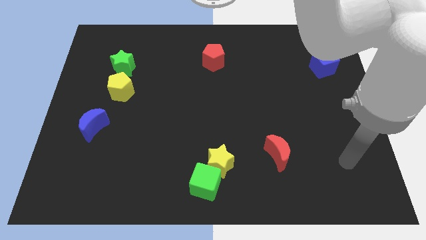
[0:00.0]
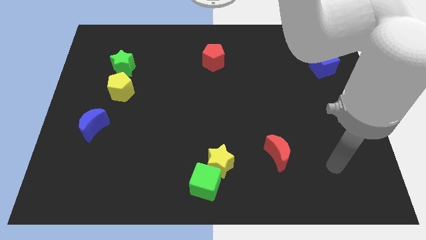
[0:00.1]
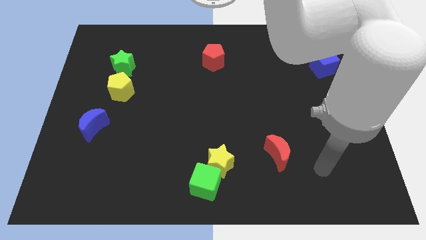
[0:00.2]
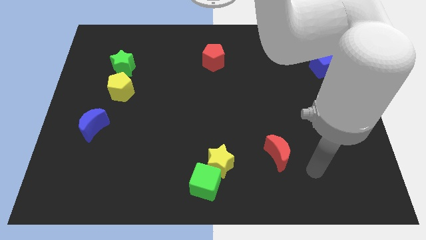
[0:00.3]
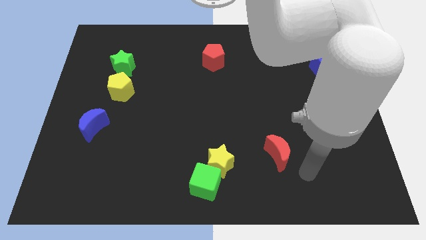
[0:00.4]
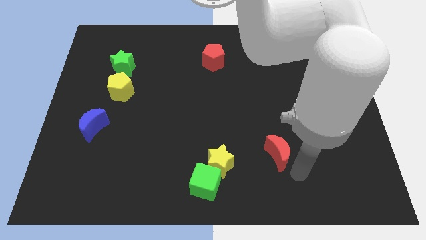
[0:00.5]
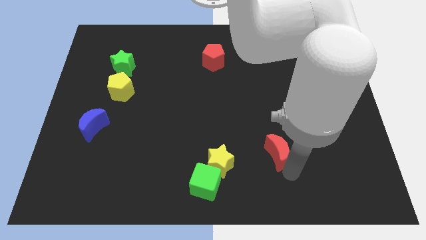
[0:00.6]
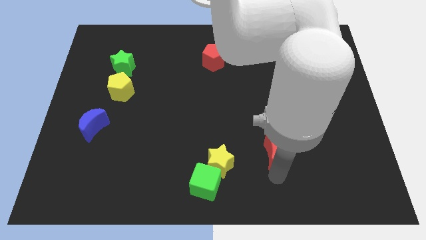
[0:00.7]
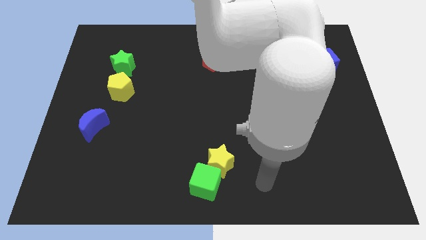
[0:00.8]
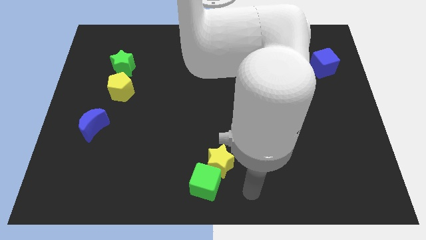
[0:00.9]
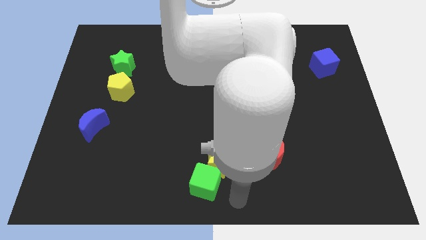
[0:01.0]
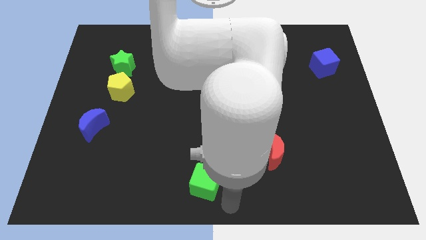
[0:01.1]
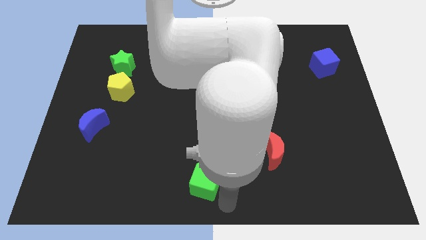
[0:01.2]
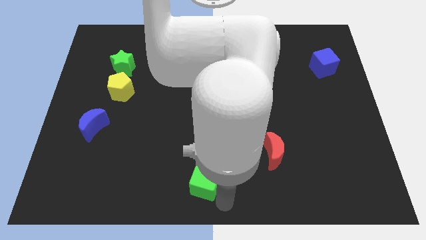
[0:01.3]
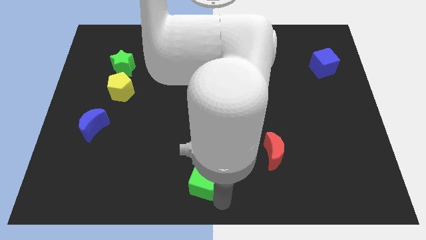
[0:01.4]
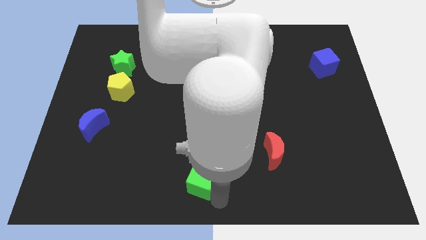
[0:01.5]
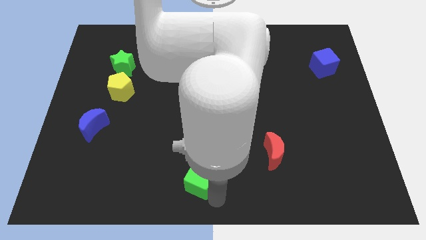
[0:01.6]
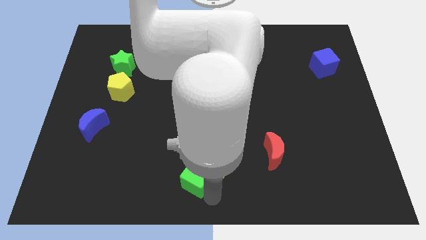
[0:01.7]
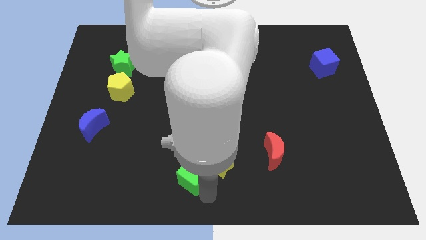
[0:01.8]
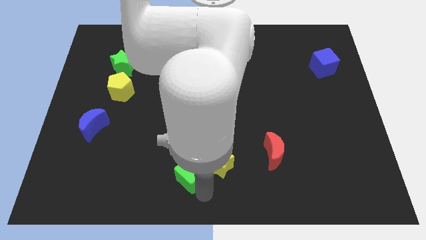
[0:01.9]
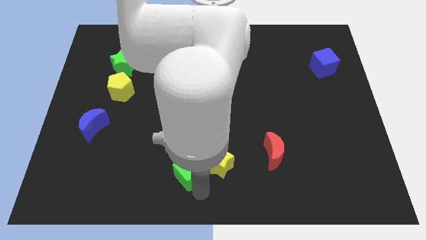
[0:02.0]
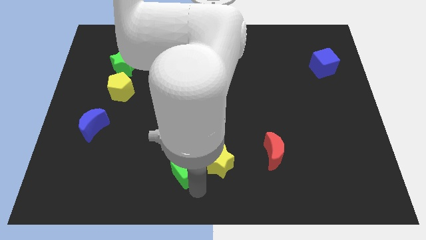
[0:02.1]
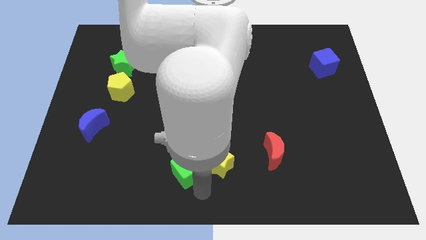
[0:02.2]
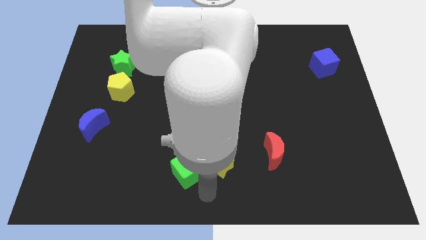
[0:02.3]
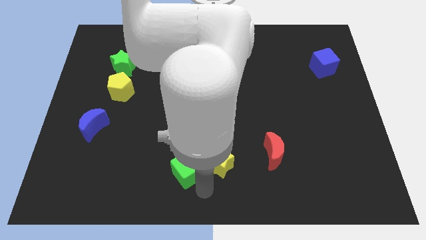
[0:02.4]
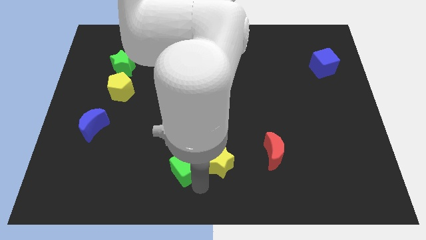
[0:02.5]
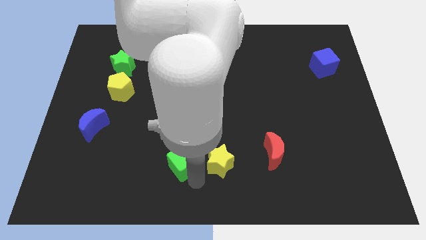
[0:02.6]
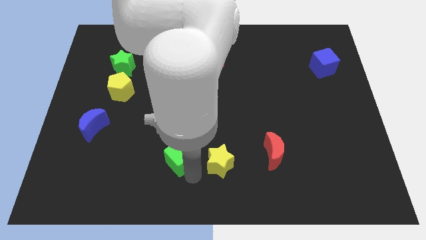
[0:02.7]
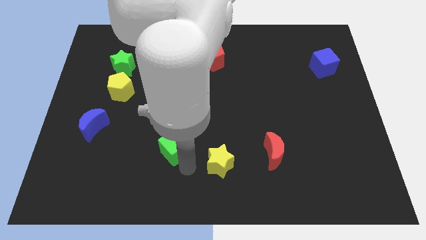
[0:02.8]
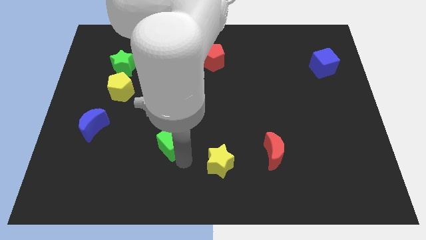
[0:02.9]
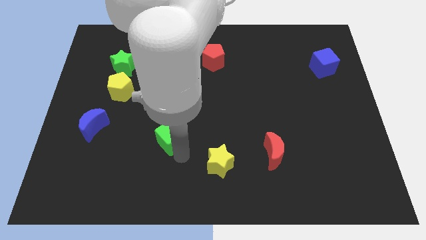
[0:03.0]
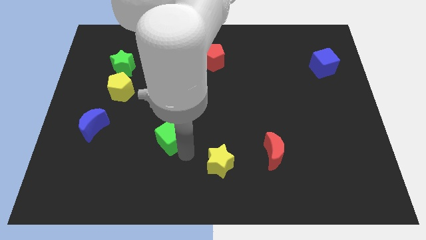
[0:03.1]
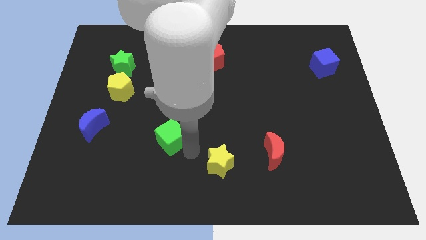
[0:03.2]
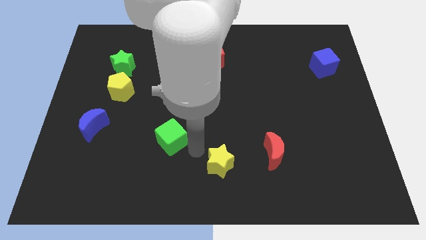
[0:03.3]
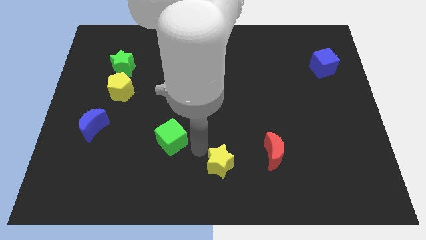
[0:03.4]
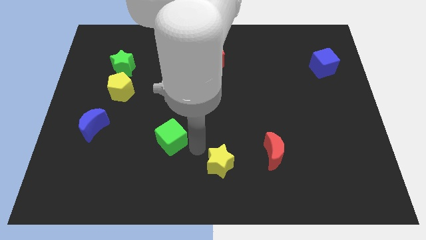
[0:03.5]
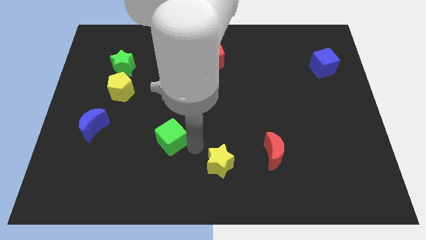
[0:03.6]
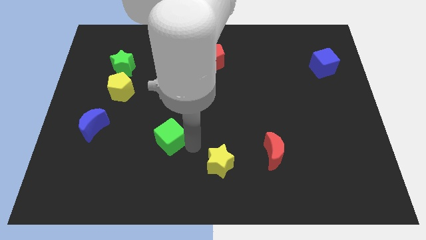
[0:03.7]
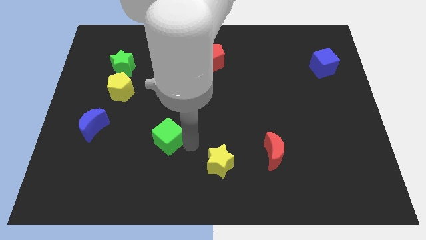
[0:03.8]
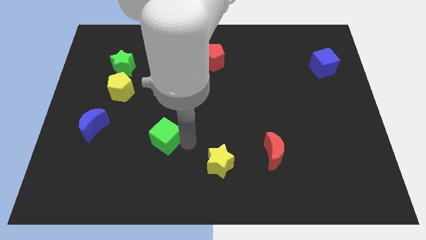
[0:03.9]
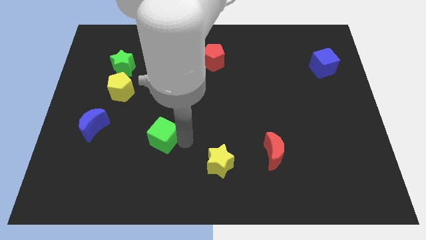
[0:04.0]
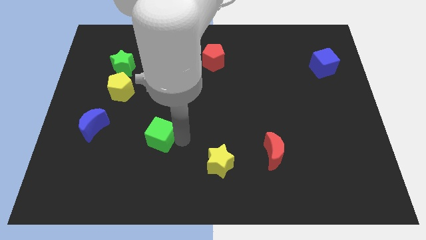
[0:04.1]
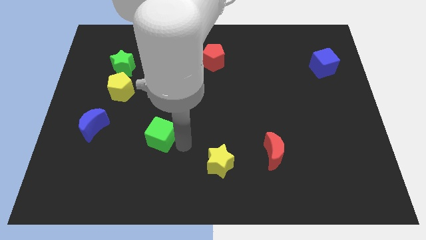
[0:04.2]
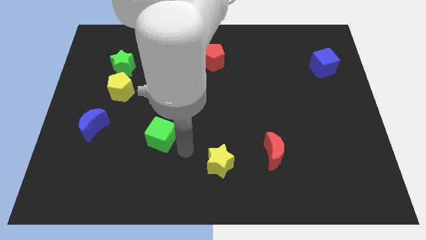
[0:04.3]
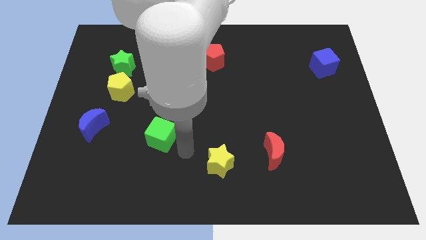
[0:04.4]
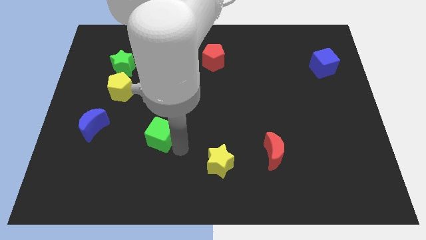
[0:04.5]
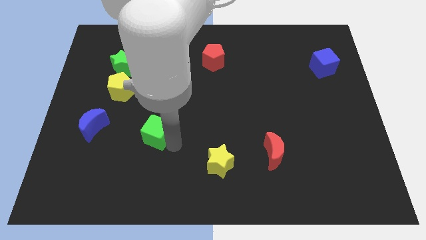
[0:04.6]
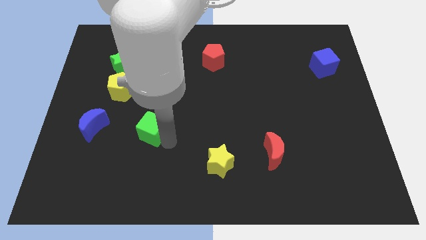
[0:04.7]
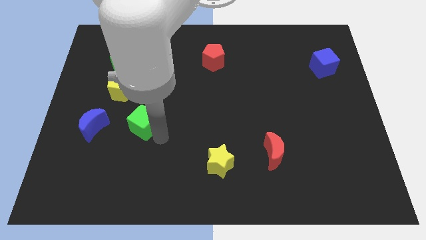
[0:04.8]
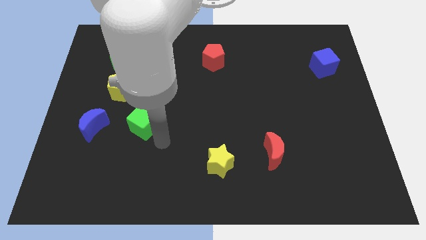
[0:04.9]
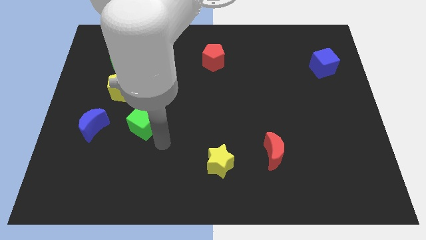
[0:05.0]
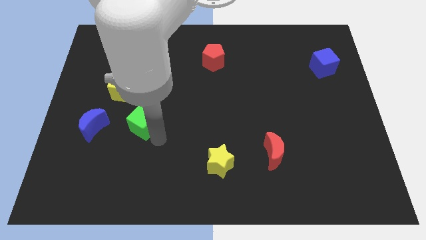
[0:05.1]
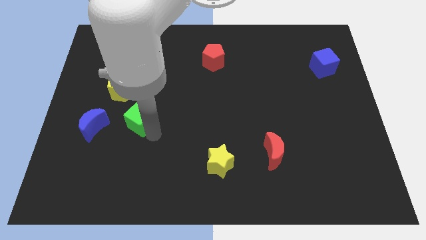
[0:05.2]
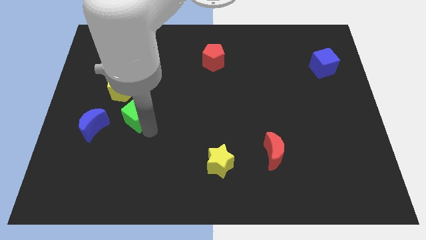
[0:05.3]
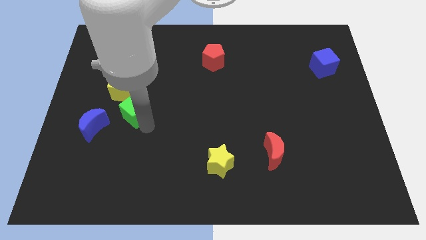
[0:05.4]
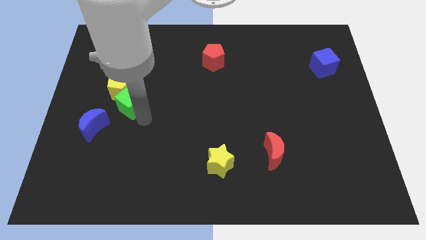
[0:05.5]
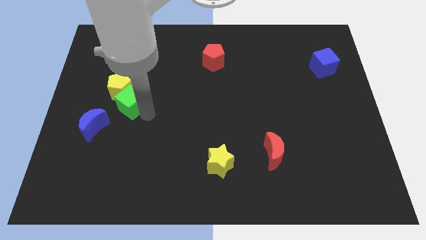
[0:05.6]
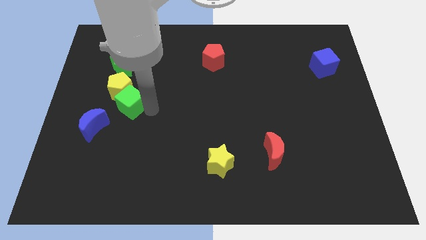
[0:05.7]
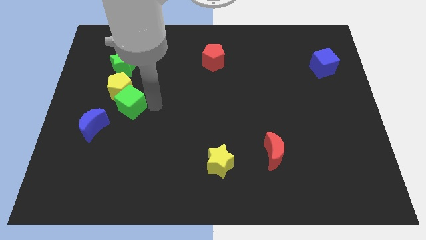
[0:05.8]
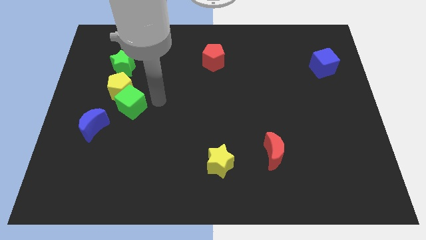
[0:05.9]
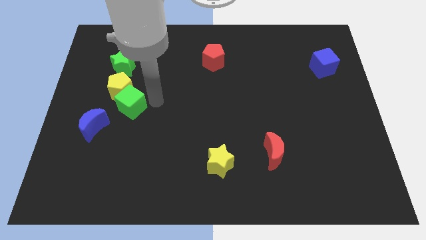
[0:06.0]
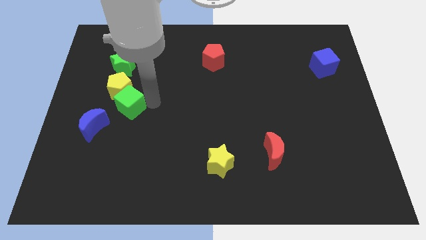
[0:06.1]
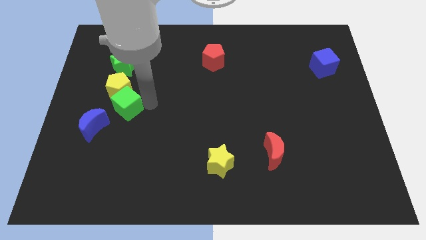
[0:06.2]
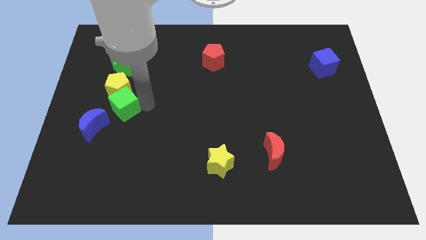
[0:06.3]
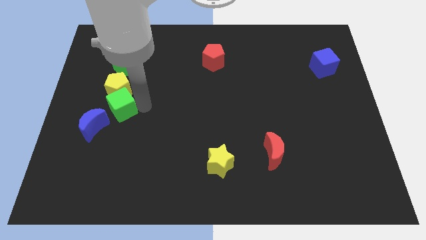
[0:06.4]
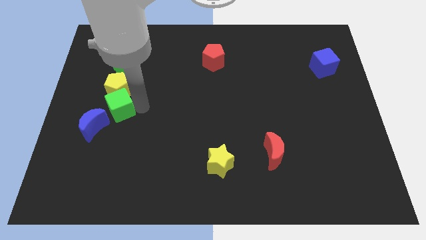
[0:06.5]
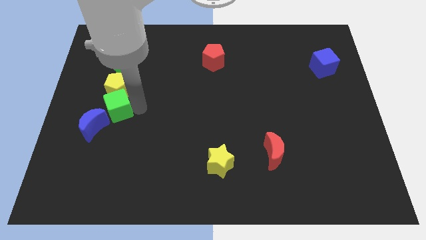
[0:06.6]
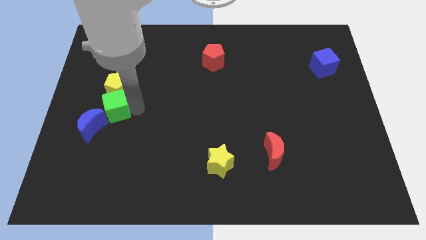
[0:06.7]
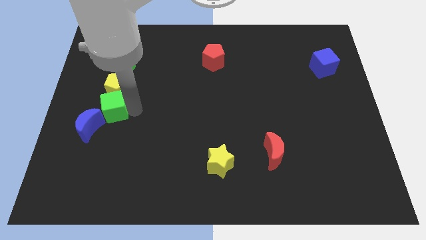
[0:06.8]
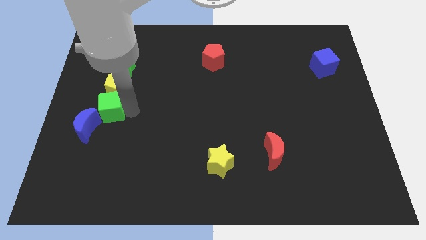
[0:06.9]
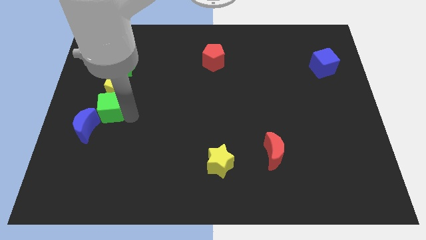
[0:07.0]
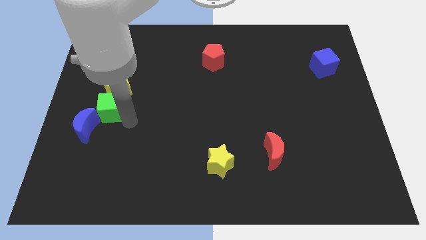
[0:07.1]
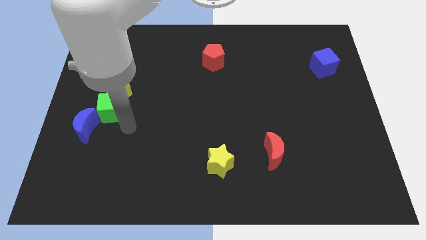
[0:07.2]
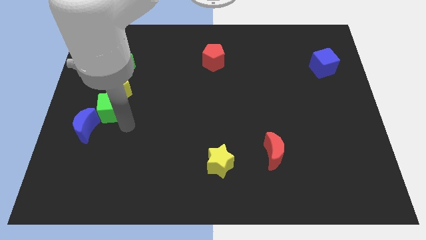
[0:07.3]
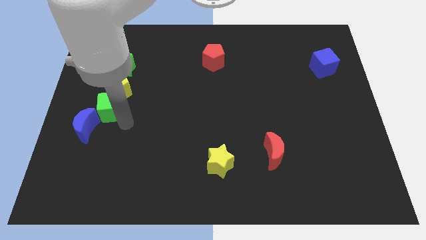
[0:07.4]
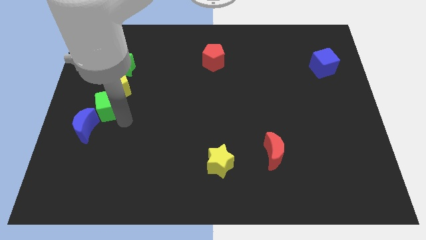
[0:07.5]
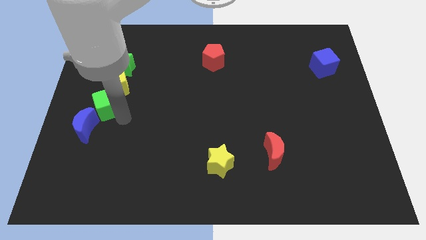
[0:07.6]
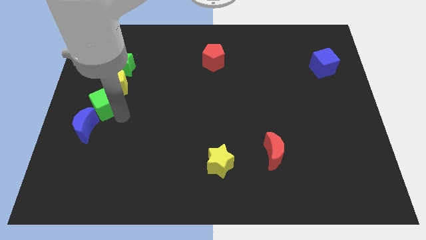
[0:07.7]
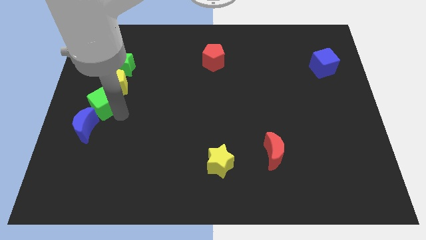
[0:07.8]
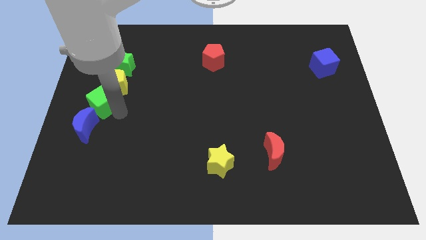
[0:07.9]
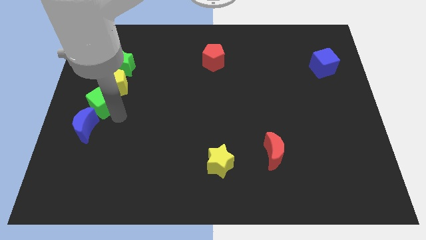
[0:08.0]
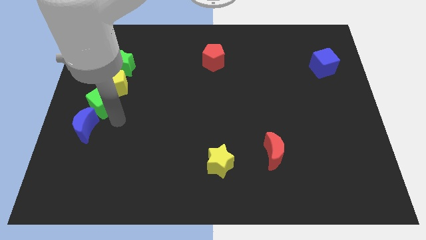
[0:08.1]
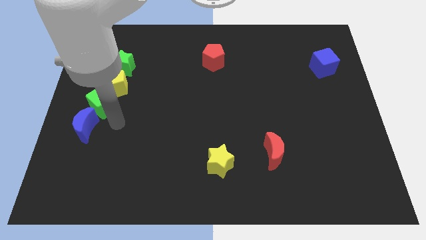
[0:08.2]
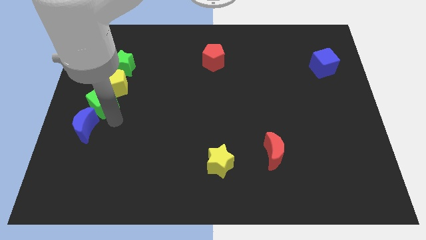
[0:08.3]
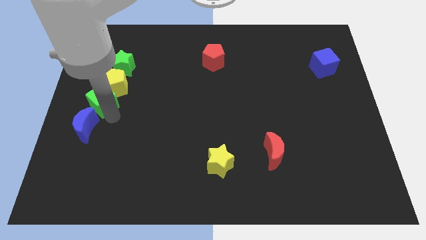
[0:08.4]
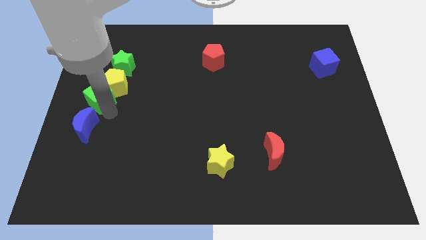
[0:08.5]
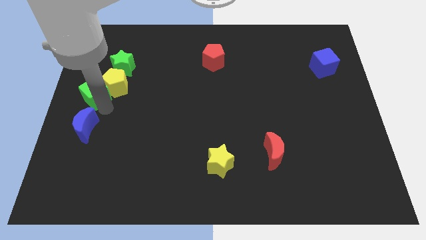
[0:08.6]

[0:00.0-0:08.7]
move the green cube to the bottom left side of the green star
